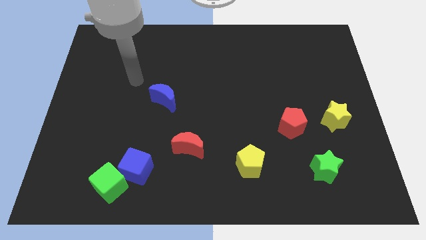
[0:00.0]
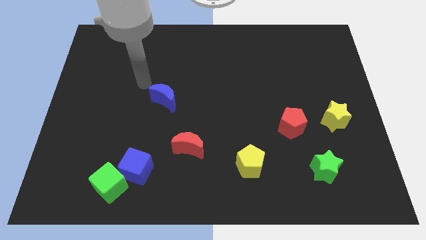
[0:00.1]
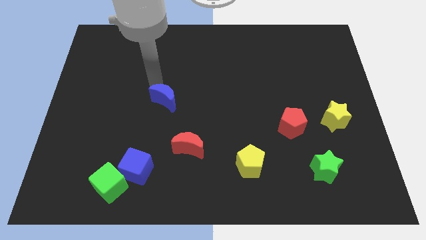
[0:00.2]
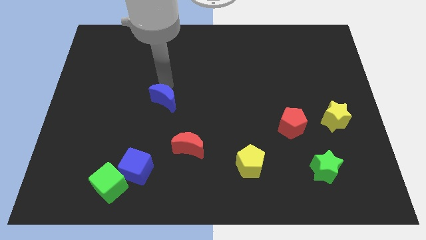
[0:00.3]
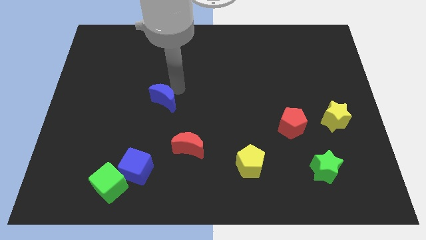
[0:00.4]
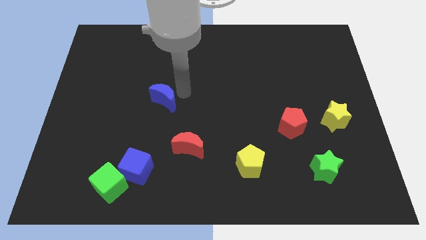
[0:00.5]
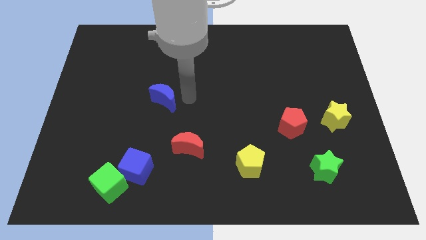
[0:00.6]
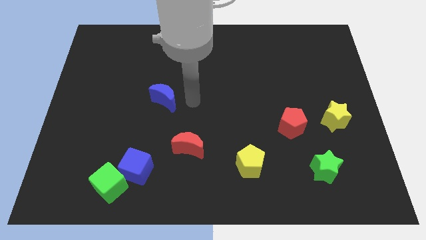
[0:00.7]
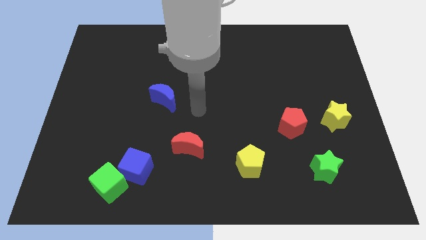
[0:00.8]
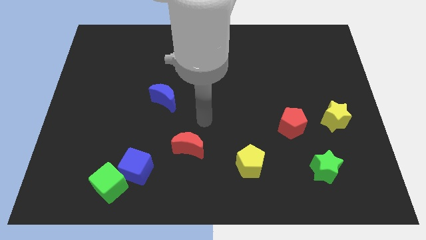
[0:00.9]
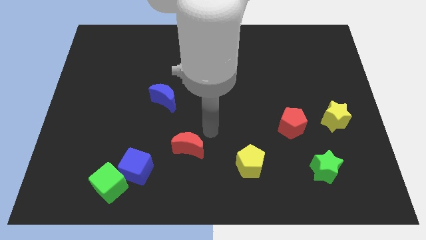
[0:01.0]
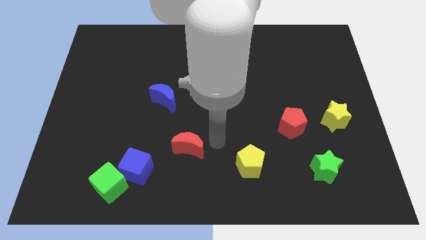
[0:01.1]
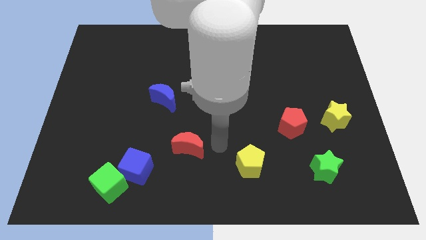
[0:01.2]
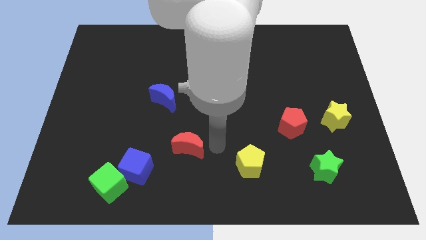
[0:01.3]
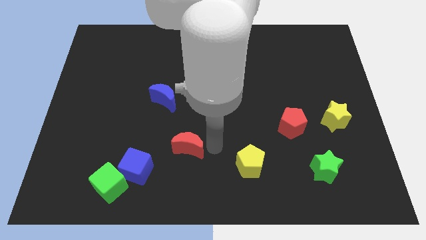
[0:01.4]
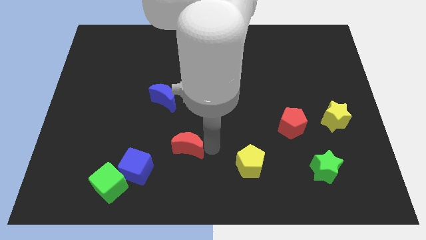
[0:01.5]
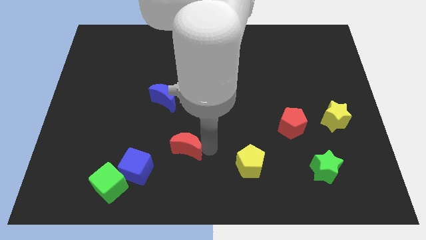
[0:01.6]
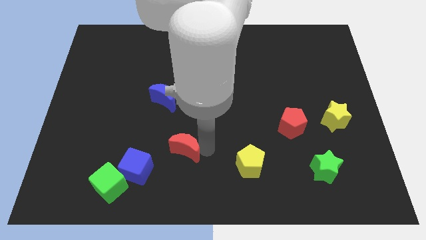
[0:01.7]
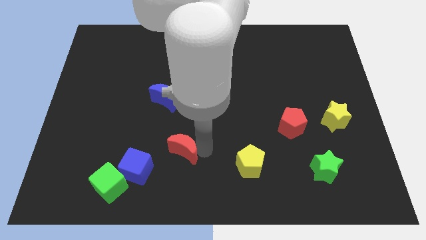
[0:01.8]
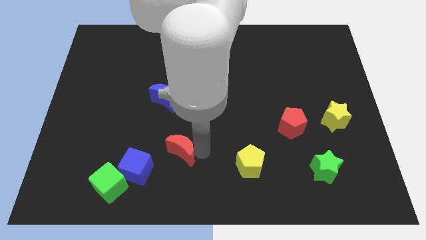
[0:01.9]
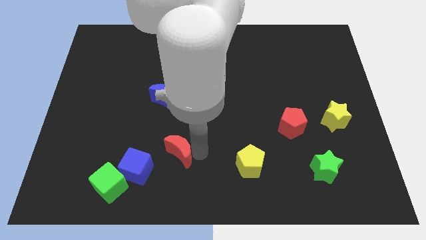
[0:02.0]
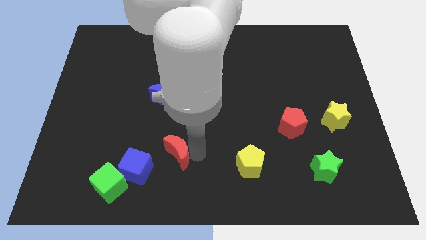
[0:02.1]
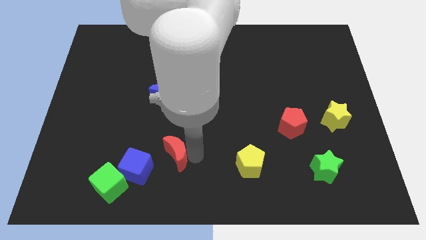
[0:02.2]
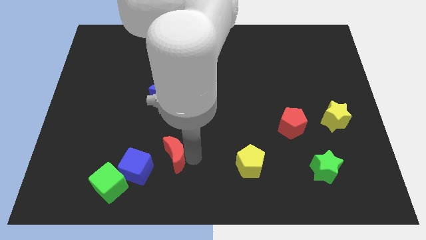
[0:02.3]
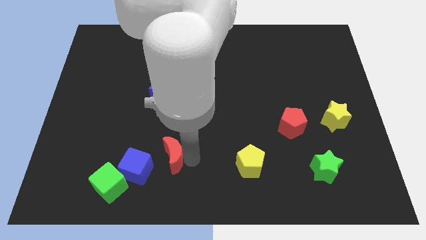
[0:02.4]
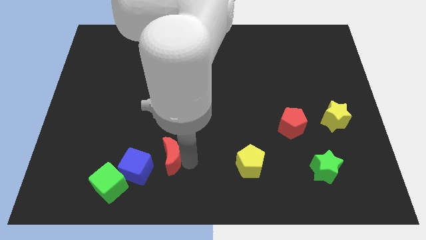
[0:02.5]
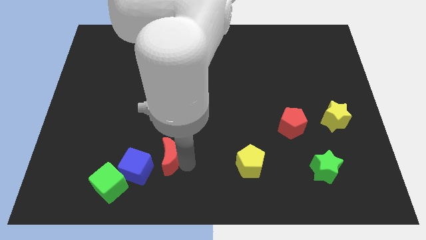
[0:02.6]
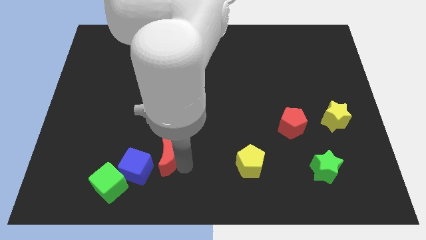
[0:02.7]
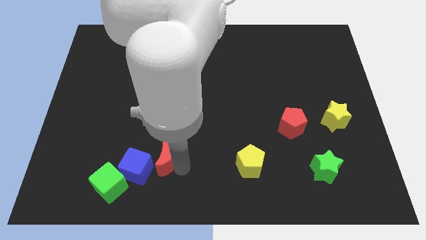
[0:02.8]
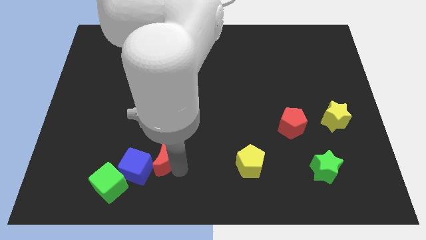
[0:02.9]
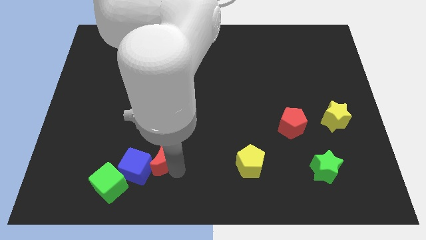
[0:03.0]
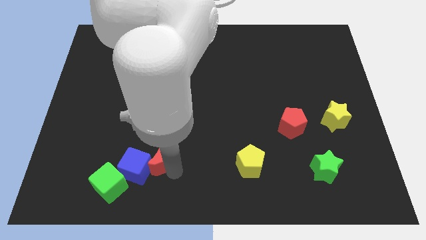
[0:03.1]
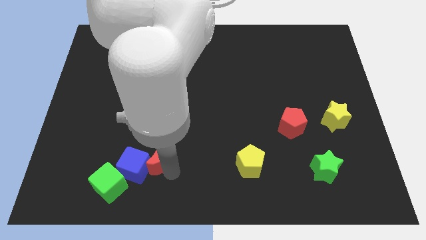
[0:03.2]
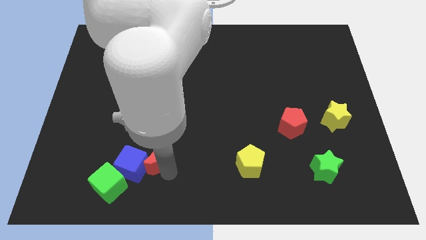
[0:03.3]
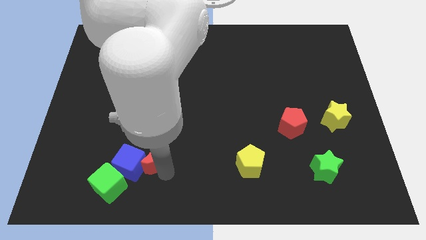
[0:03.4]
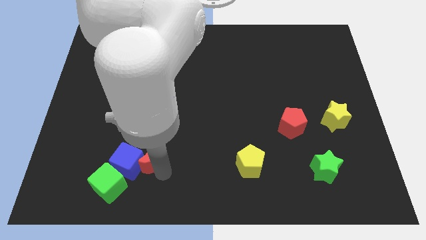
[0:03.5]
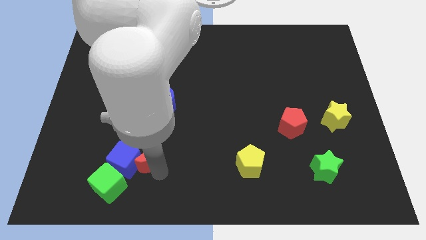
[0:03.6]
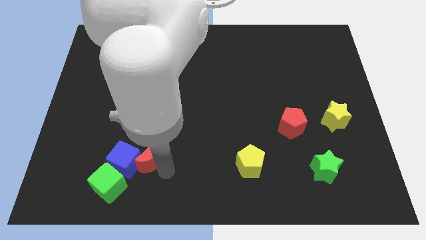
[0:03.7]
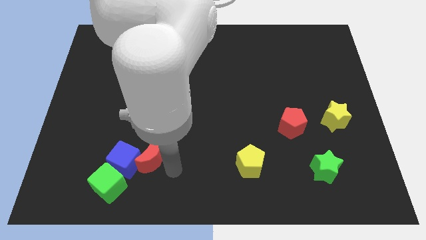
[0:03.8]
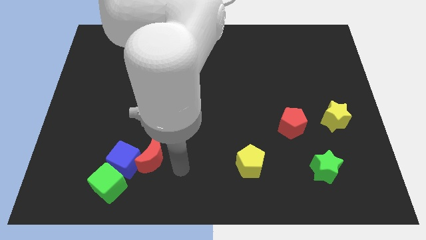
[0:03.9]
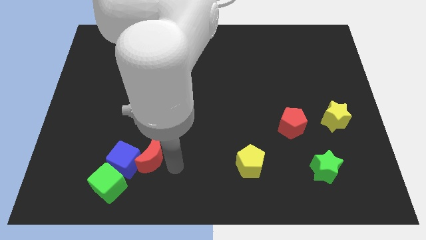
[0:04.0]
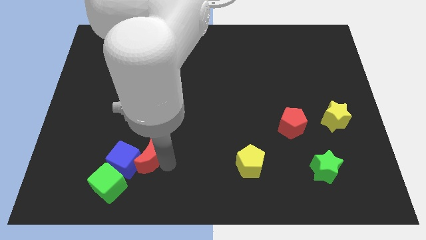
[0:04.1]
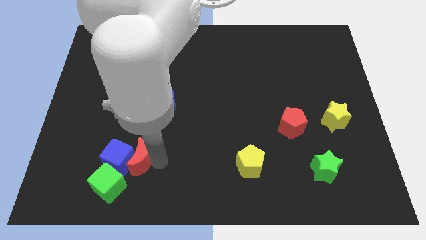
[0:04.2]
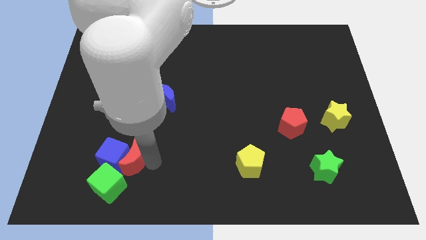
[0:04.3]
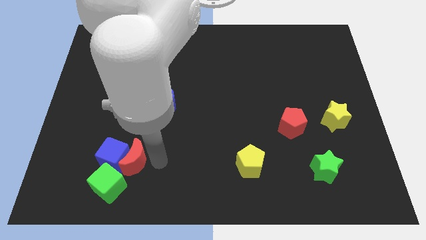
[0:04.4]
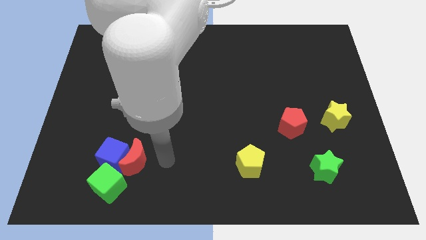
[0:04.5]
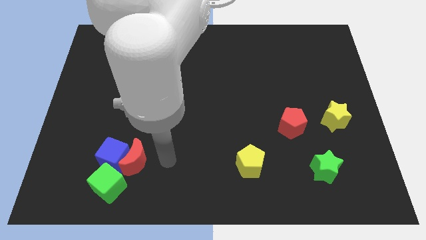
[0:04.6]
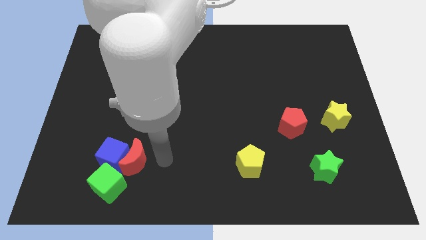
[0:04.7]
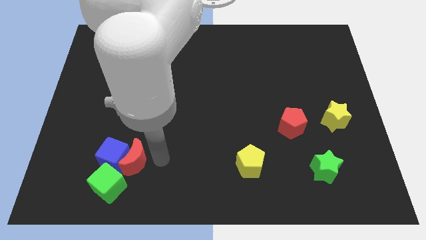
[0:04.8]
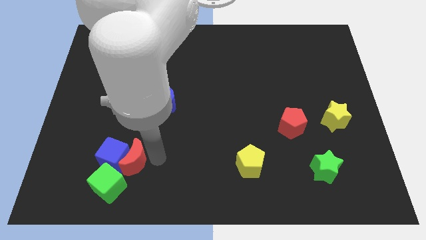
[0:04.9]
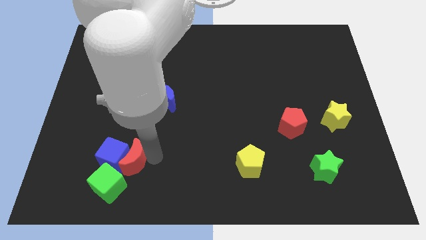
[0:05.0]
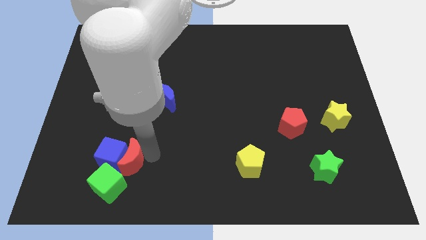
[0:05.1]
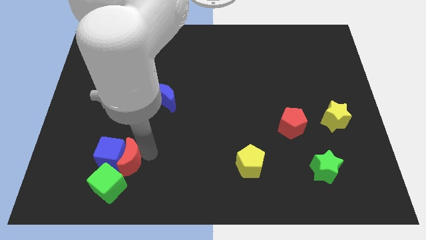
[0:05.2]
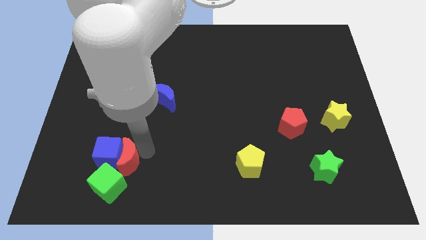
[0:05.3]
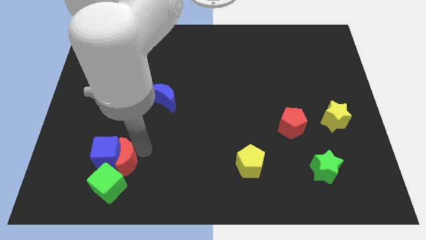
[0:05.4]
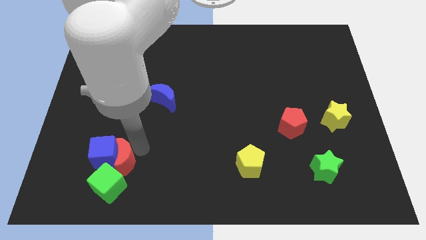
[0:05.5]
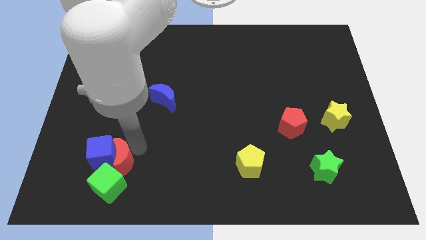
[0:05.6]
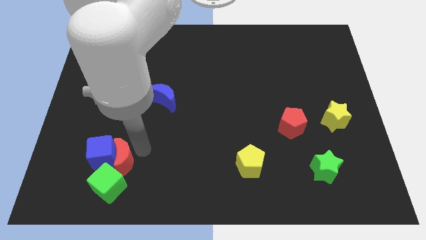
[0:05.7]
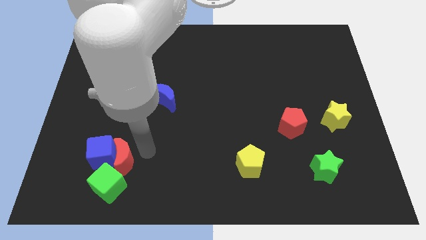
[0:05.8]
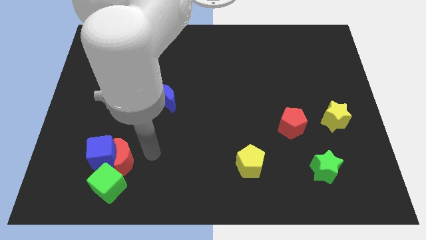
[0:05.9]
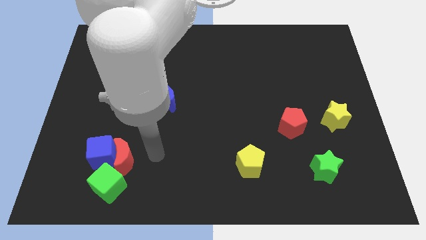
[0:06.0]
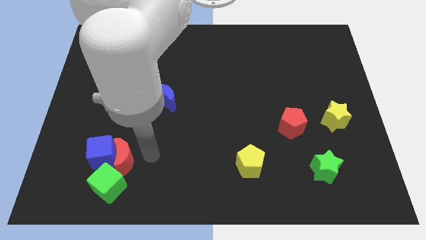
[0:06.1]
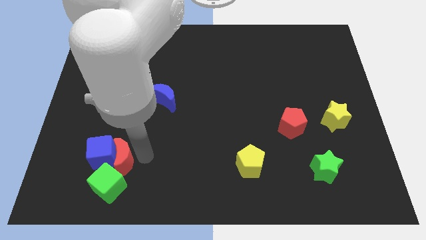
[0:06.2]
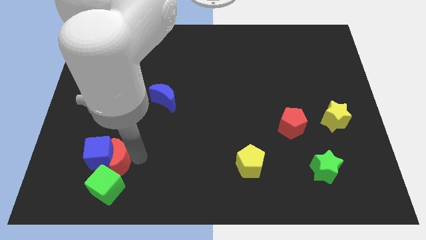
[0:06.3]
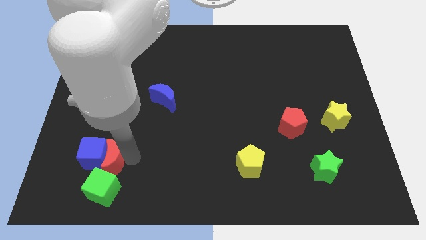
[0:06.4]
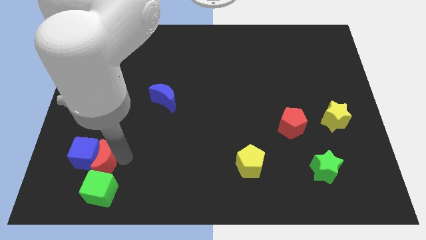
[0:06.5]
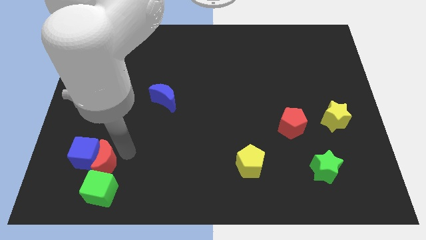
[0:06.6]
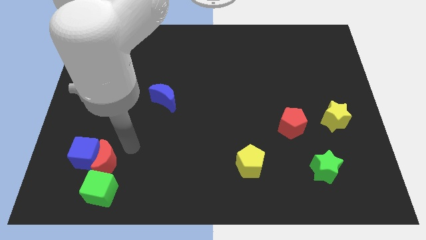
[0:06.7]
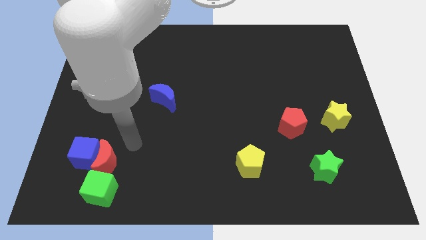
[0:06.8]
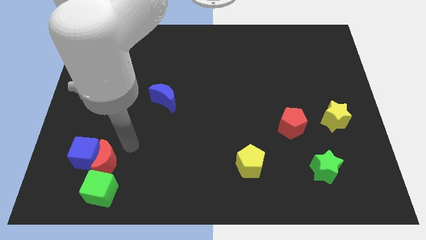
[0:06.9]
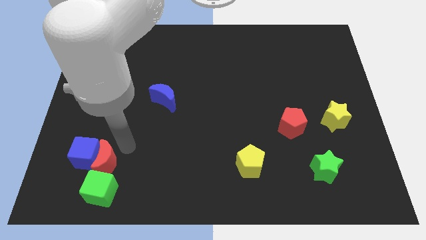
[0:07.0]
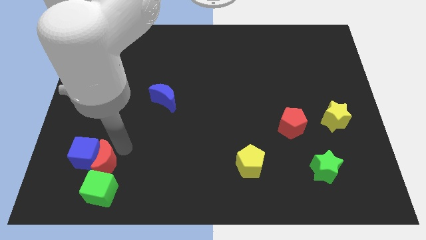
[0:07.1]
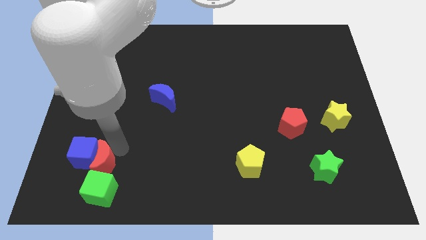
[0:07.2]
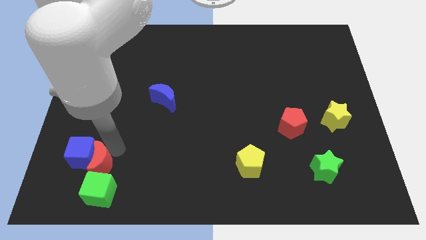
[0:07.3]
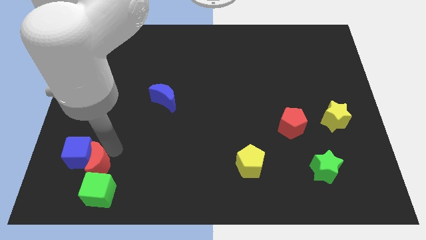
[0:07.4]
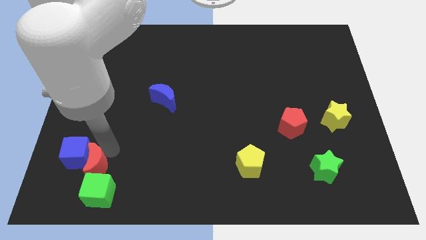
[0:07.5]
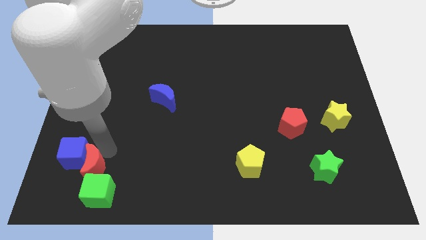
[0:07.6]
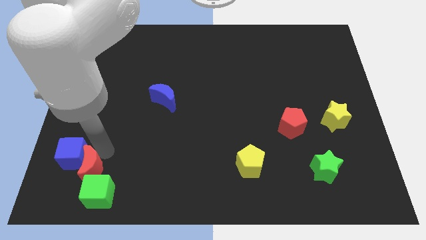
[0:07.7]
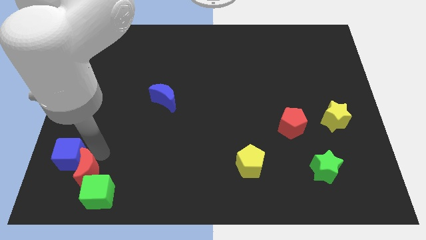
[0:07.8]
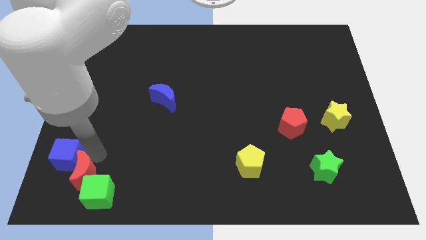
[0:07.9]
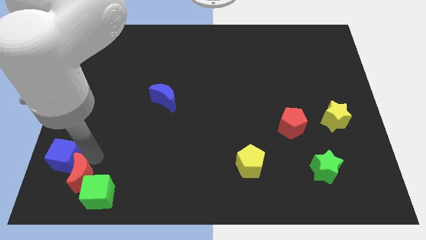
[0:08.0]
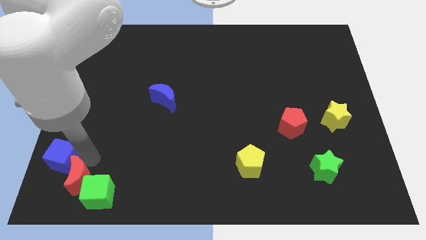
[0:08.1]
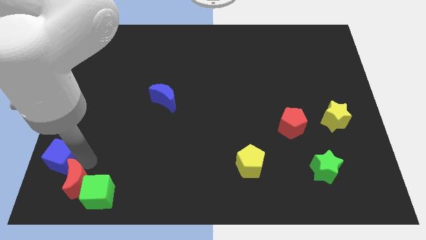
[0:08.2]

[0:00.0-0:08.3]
slide the red moon to the bottom left
